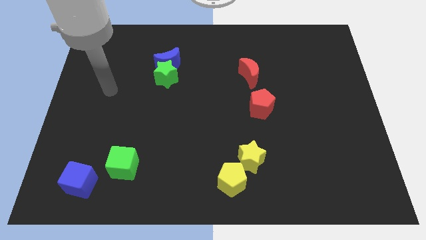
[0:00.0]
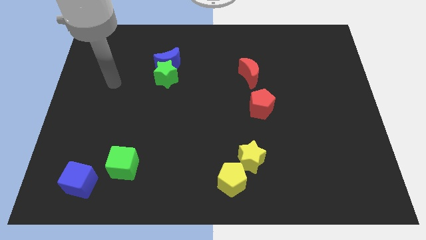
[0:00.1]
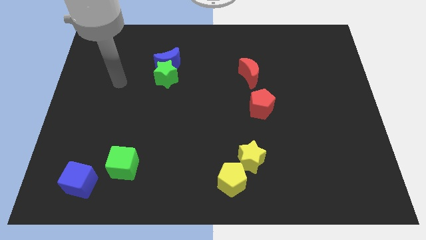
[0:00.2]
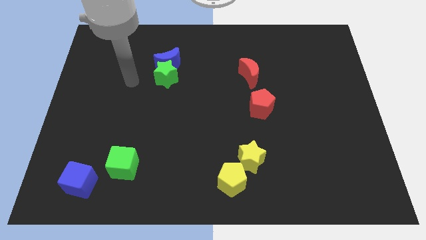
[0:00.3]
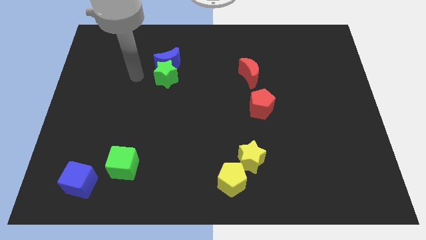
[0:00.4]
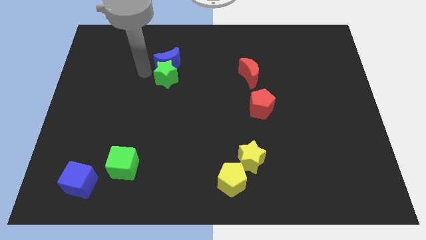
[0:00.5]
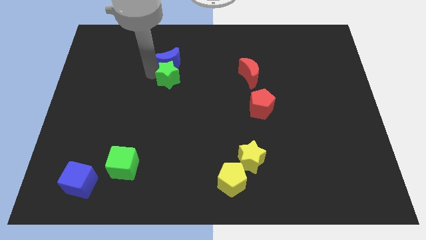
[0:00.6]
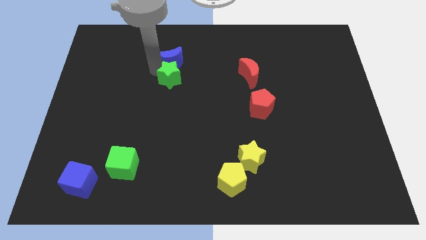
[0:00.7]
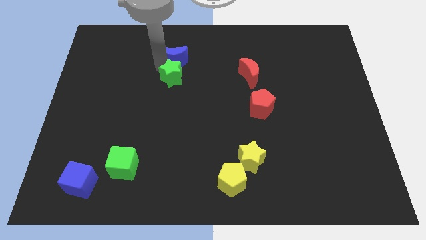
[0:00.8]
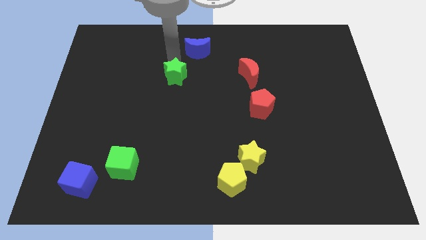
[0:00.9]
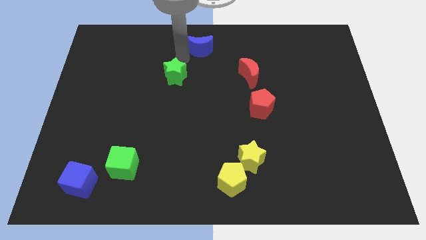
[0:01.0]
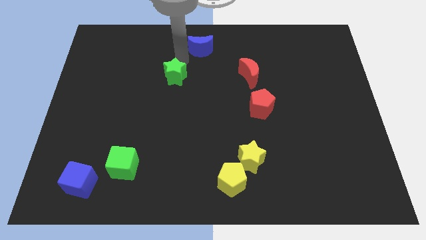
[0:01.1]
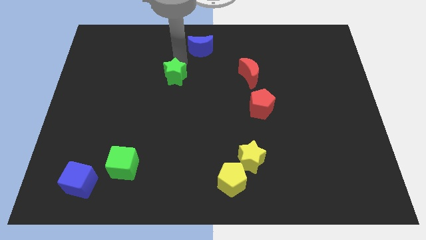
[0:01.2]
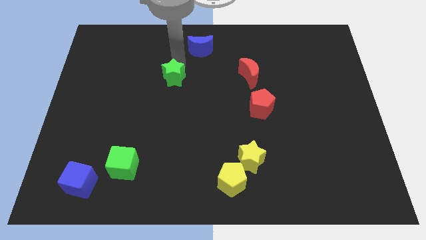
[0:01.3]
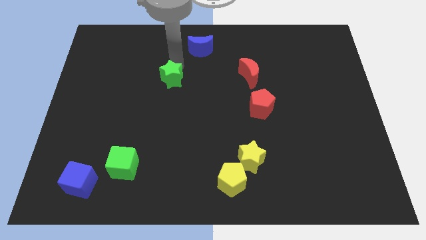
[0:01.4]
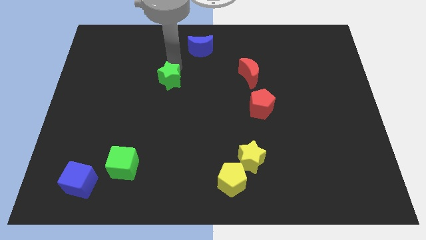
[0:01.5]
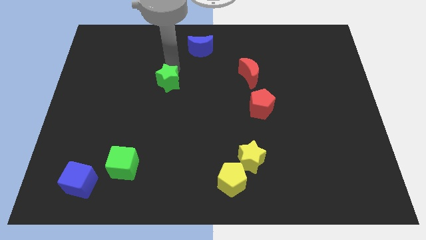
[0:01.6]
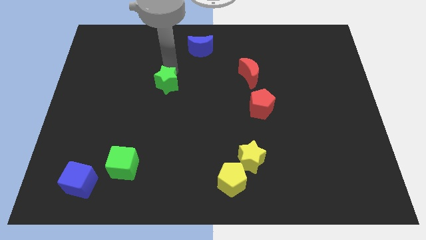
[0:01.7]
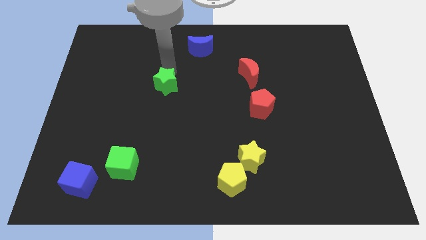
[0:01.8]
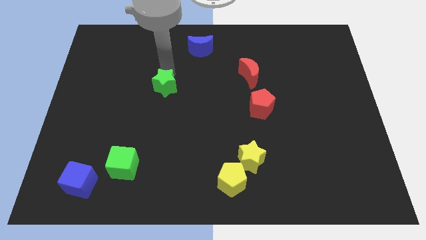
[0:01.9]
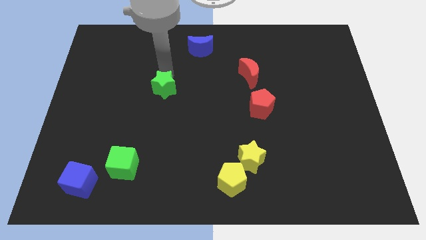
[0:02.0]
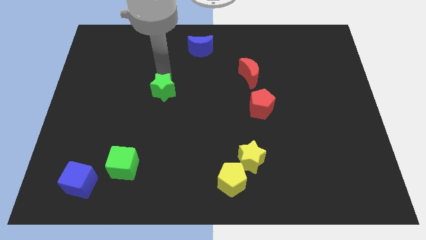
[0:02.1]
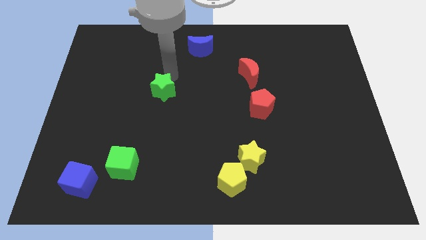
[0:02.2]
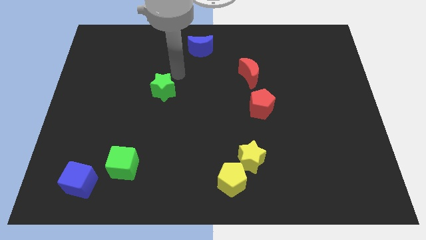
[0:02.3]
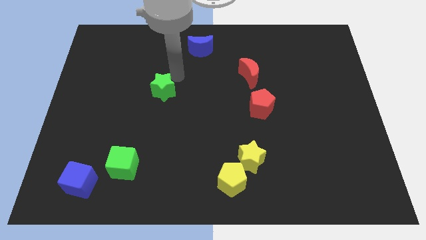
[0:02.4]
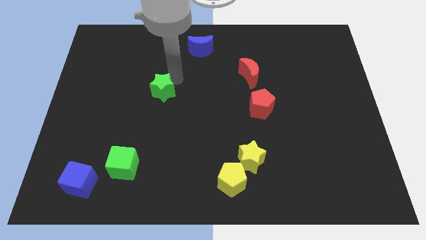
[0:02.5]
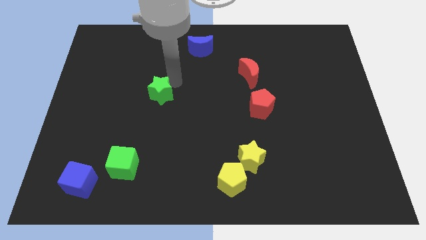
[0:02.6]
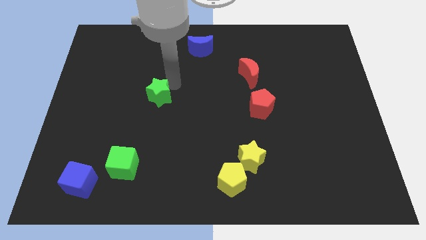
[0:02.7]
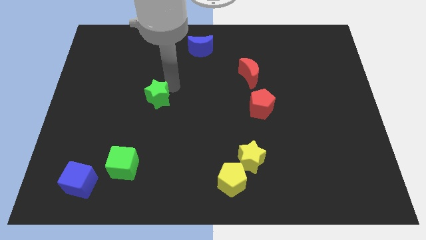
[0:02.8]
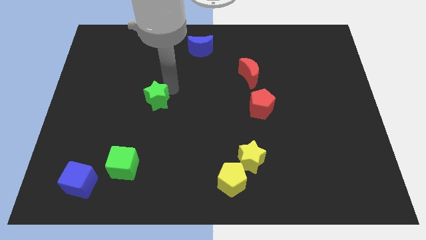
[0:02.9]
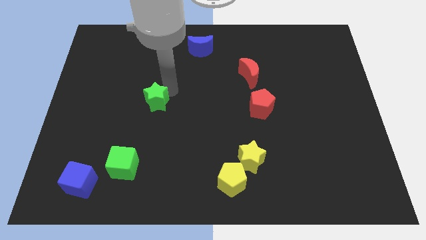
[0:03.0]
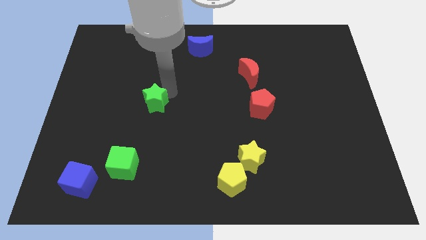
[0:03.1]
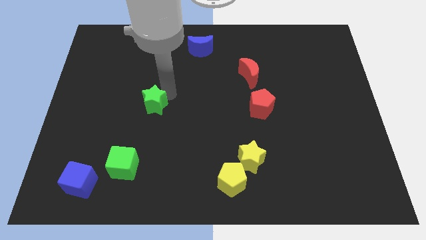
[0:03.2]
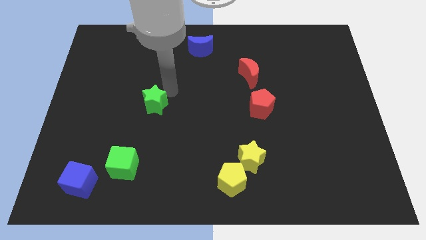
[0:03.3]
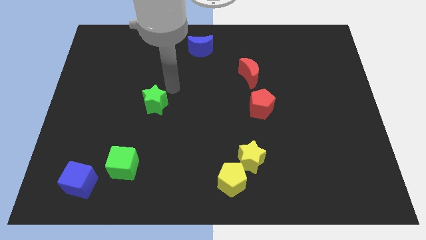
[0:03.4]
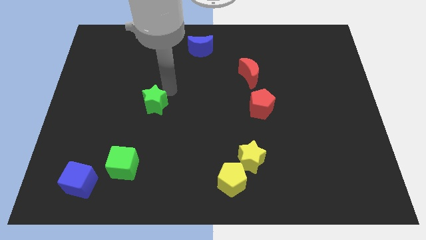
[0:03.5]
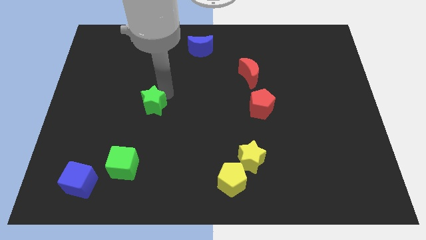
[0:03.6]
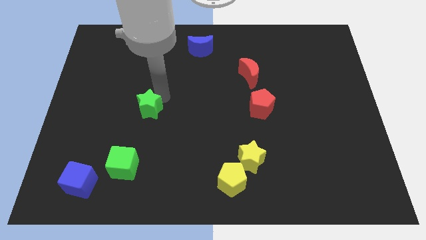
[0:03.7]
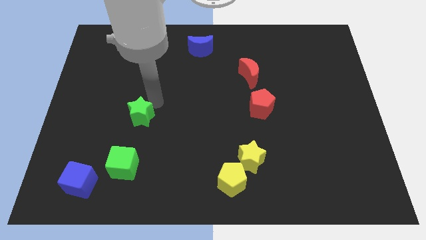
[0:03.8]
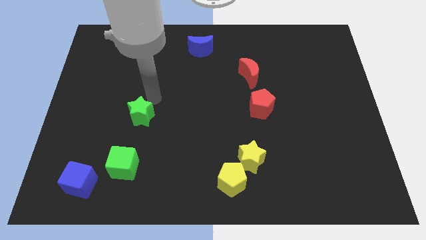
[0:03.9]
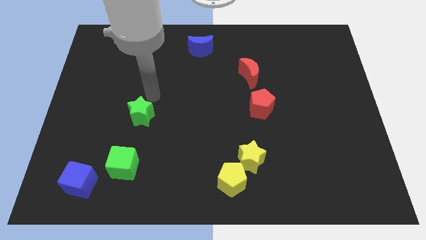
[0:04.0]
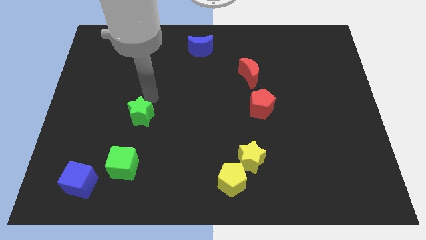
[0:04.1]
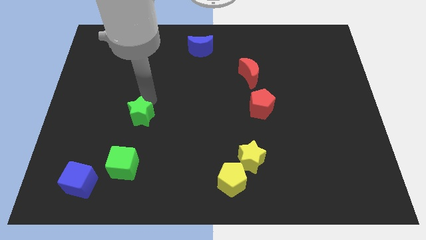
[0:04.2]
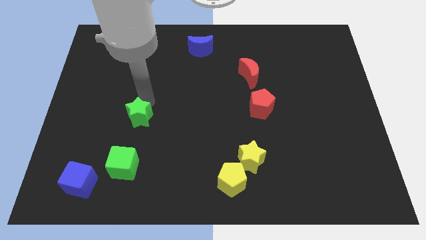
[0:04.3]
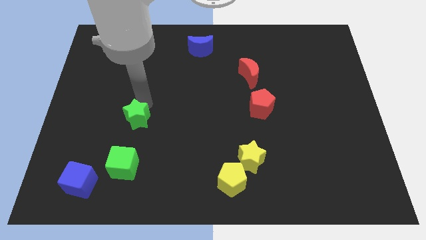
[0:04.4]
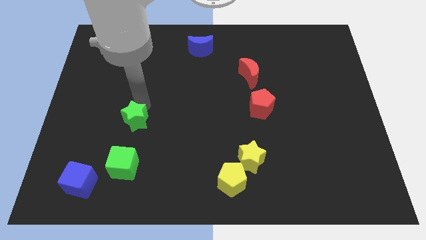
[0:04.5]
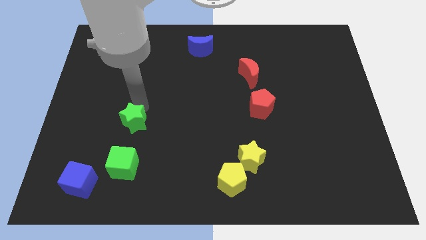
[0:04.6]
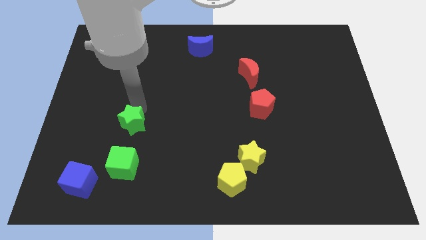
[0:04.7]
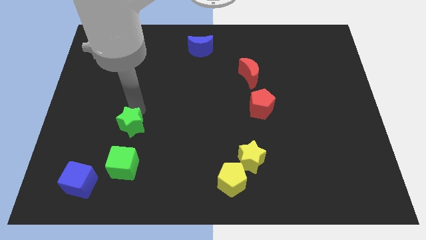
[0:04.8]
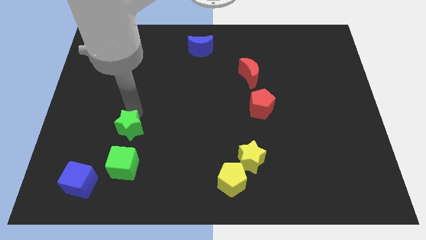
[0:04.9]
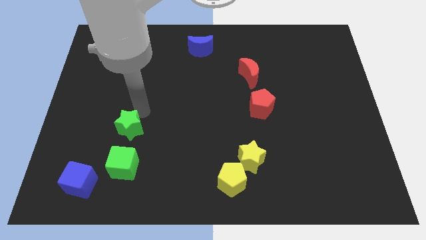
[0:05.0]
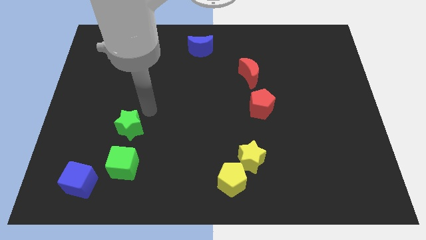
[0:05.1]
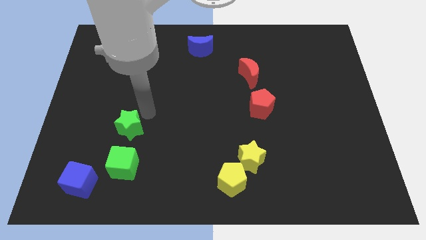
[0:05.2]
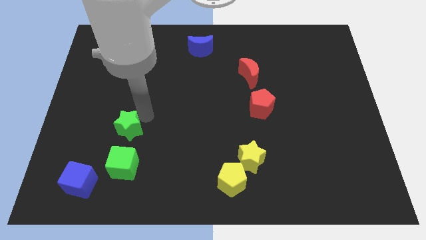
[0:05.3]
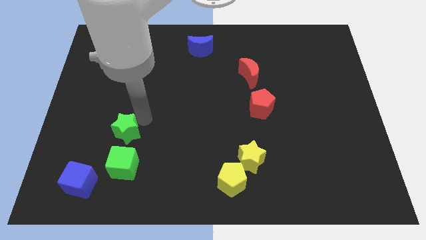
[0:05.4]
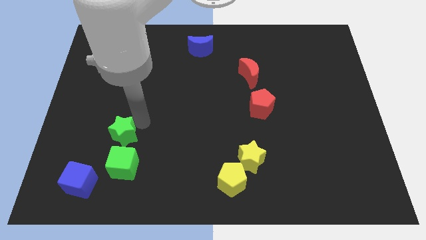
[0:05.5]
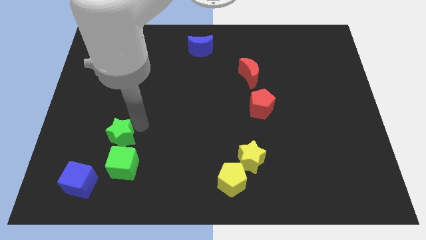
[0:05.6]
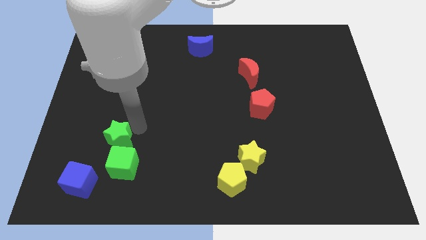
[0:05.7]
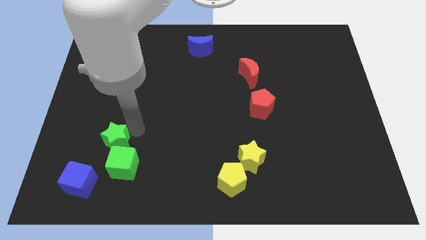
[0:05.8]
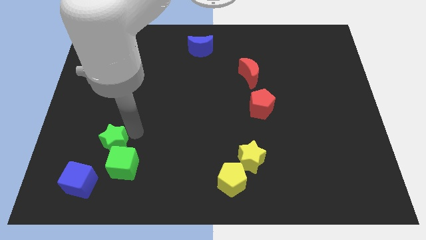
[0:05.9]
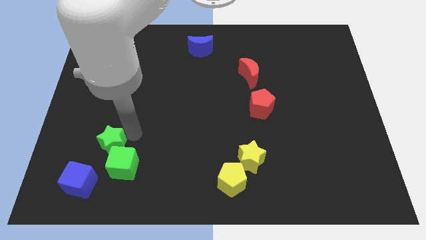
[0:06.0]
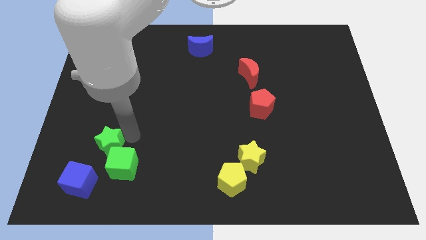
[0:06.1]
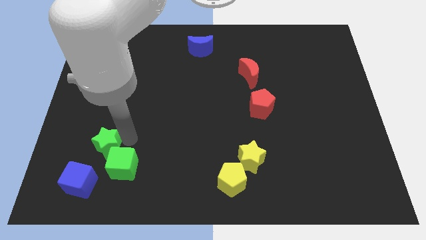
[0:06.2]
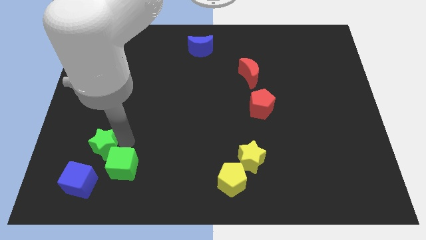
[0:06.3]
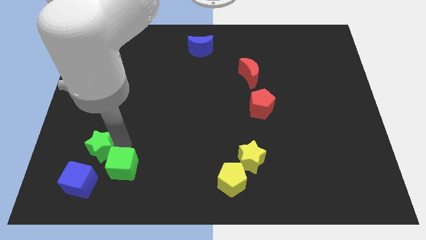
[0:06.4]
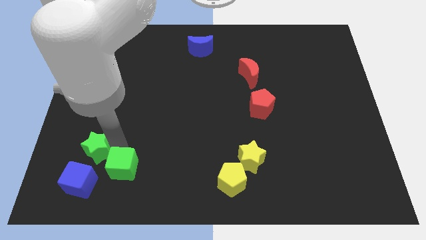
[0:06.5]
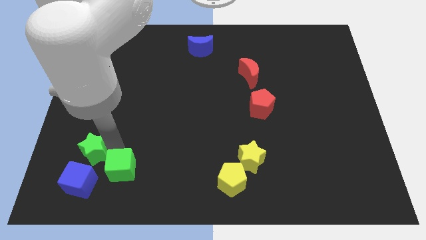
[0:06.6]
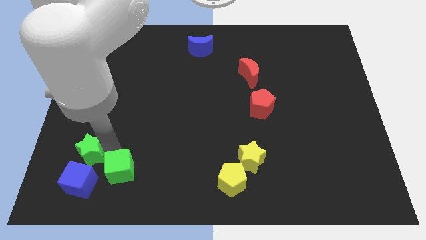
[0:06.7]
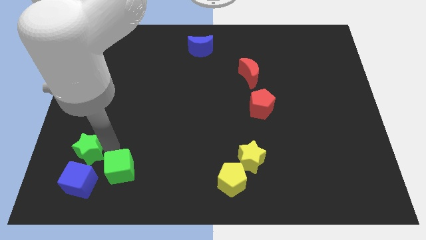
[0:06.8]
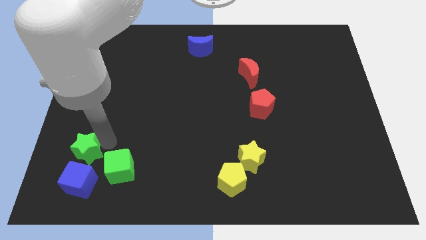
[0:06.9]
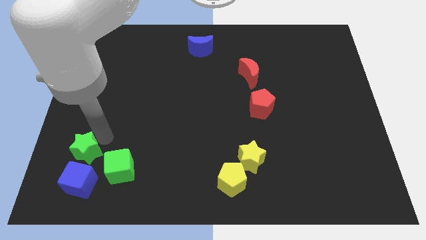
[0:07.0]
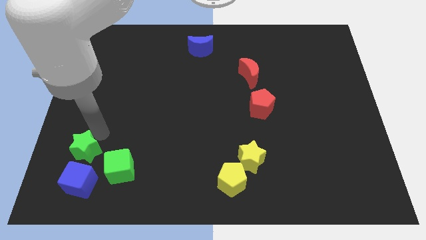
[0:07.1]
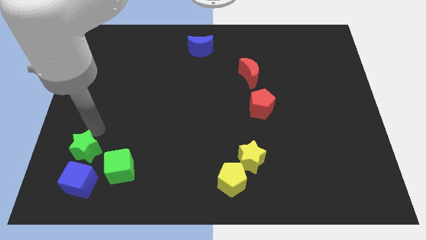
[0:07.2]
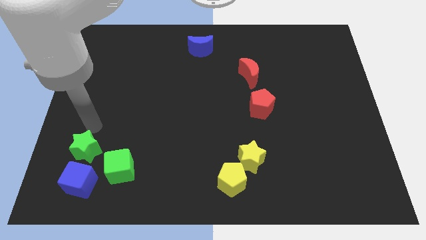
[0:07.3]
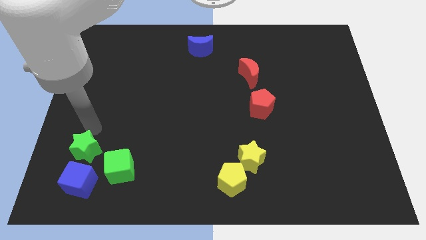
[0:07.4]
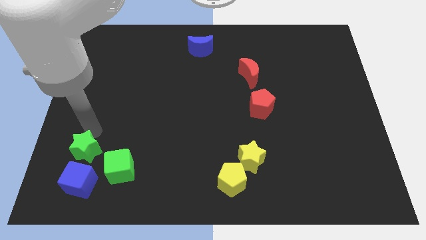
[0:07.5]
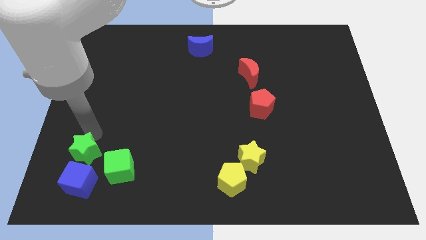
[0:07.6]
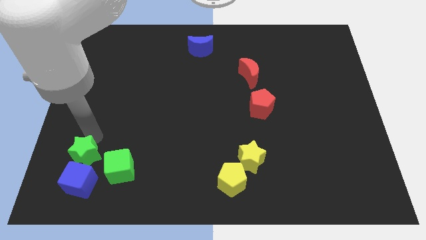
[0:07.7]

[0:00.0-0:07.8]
put the green star next to the blue cube

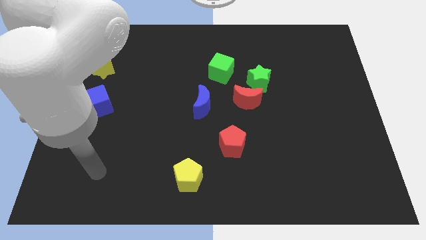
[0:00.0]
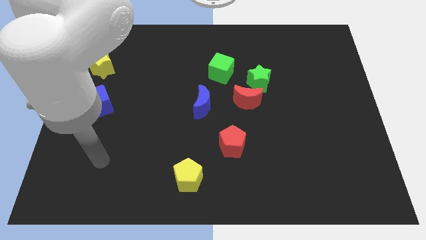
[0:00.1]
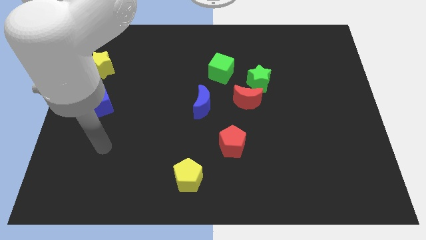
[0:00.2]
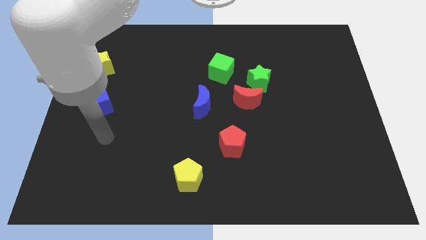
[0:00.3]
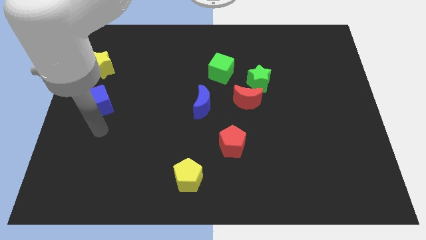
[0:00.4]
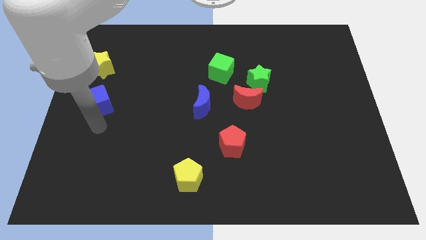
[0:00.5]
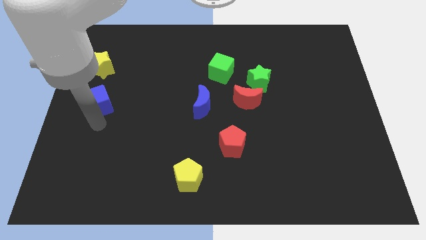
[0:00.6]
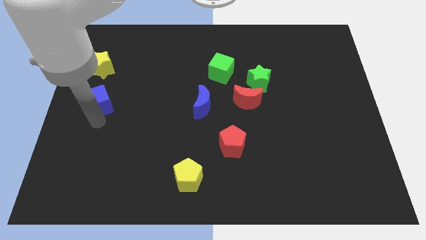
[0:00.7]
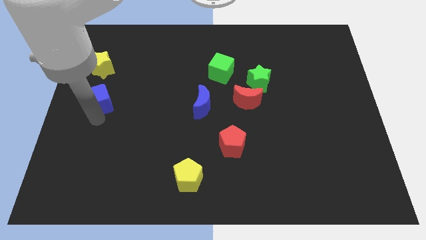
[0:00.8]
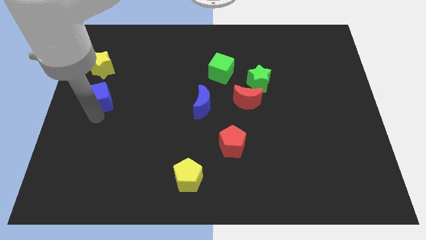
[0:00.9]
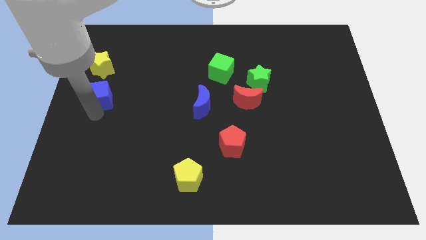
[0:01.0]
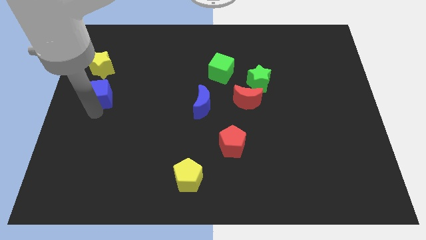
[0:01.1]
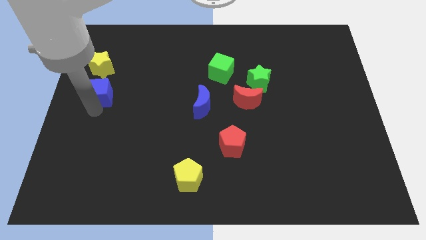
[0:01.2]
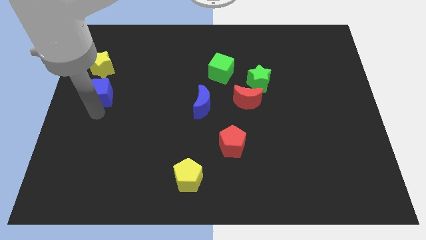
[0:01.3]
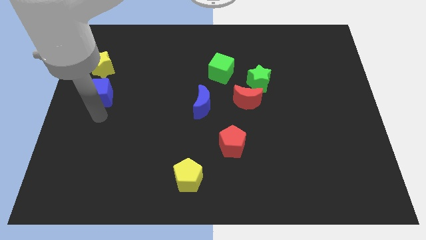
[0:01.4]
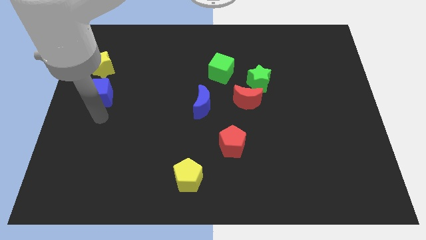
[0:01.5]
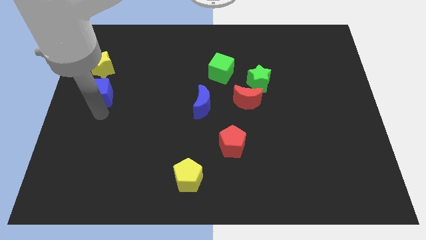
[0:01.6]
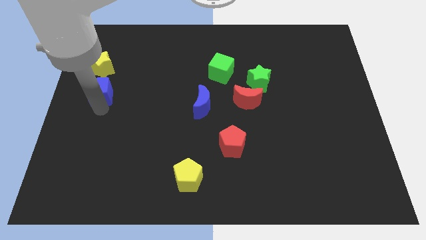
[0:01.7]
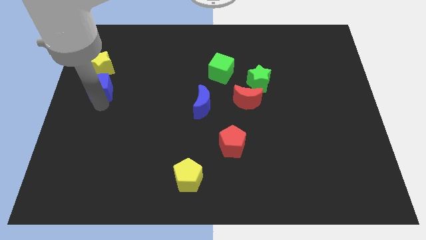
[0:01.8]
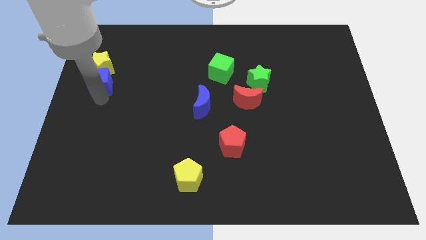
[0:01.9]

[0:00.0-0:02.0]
slide the blue cube to the yellow star
